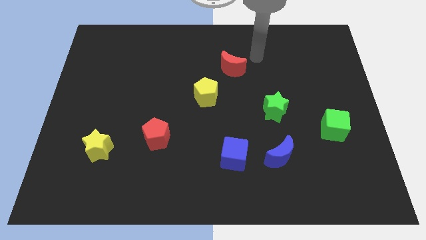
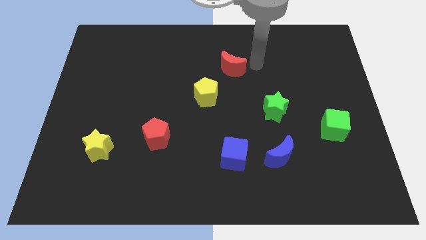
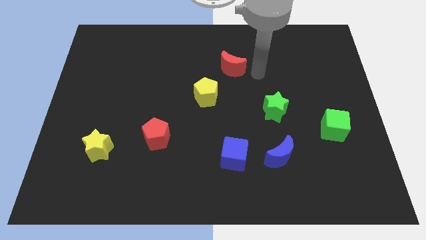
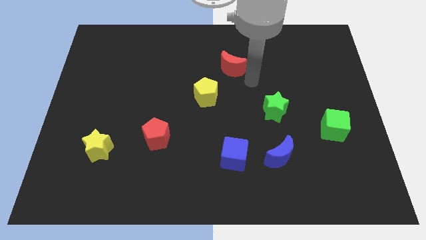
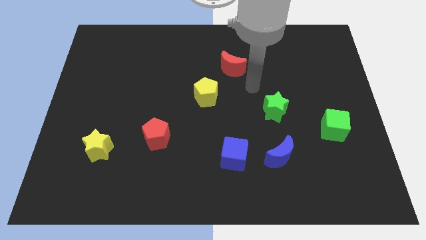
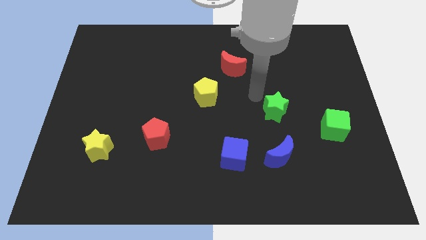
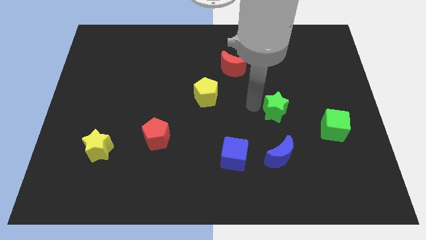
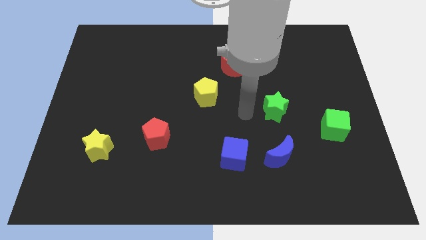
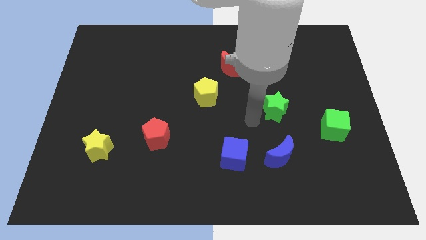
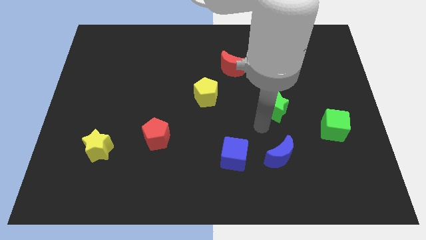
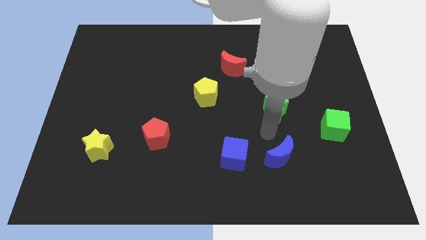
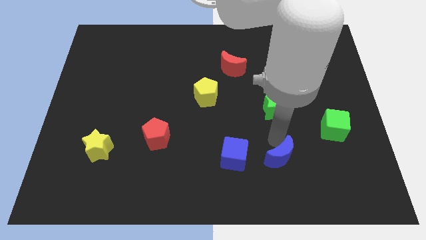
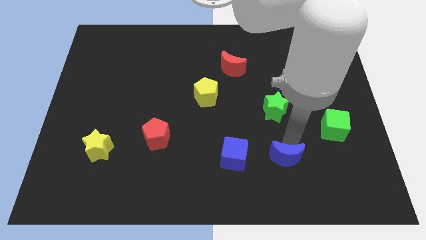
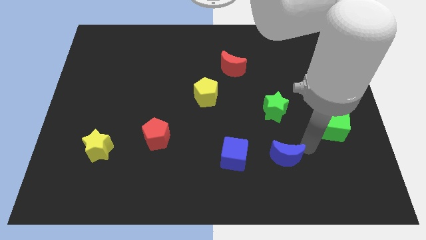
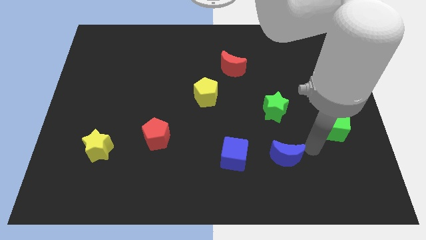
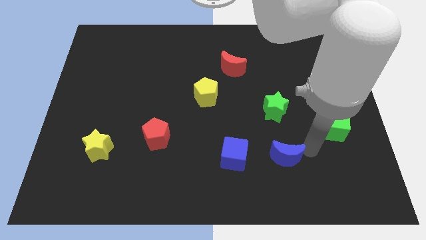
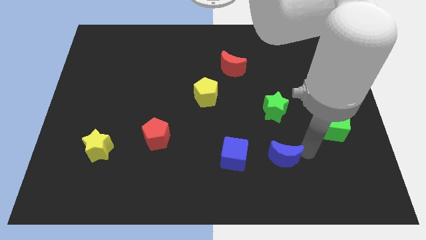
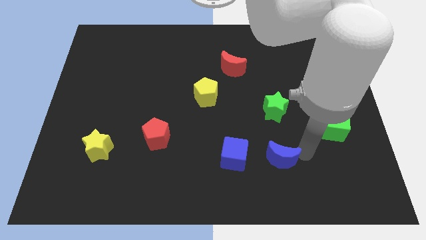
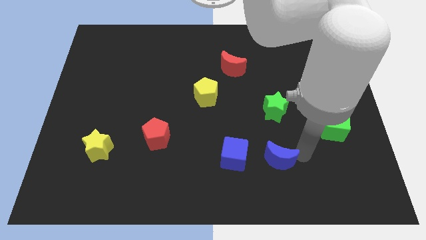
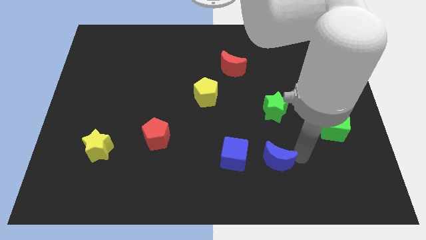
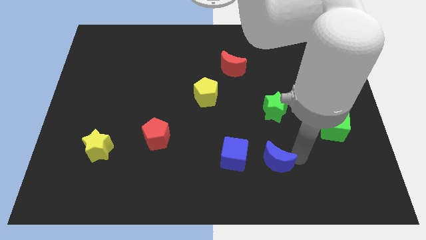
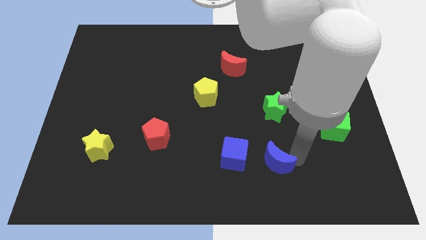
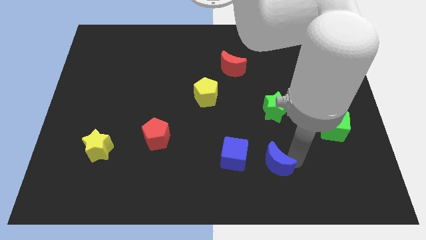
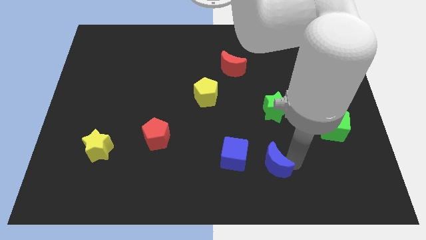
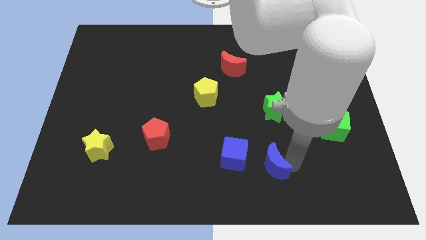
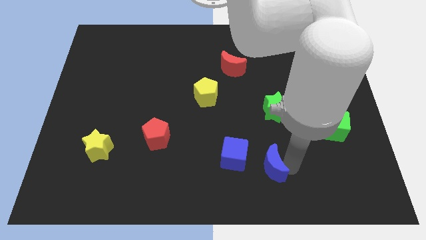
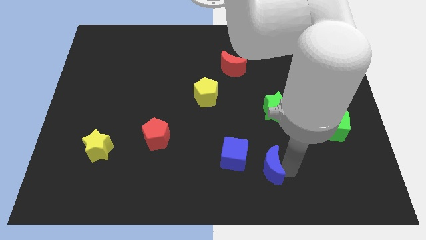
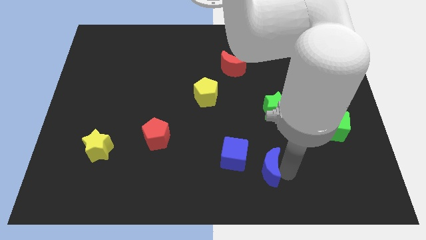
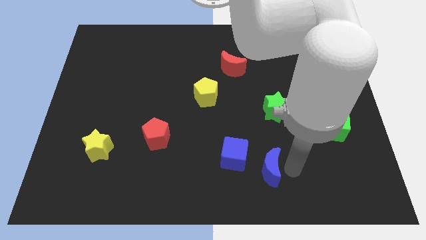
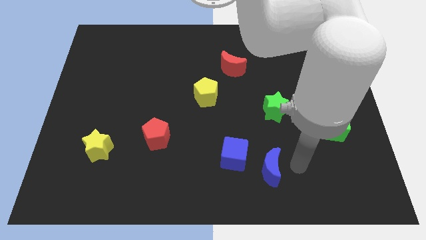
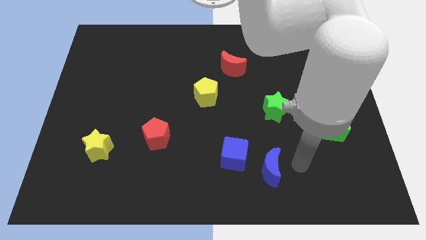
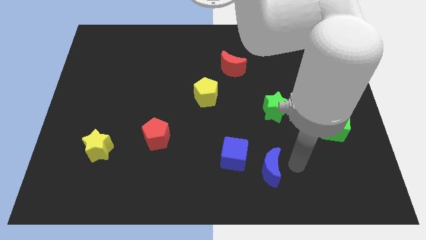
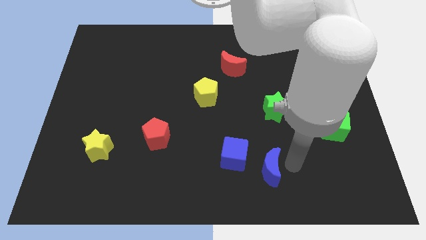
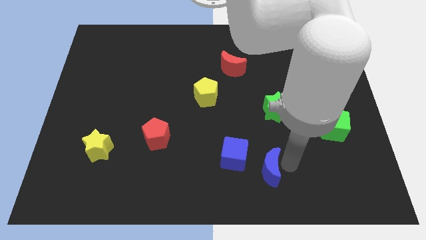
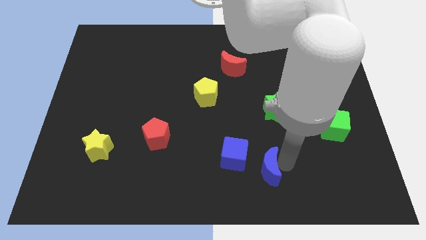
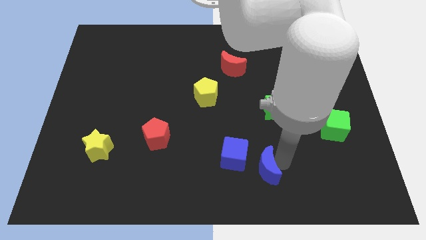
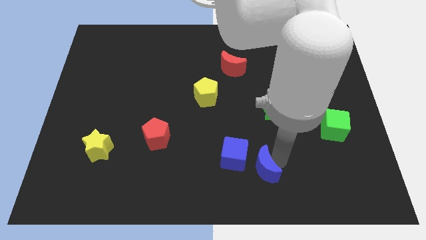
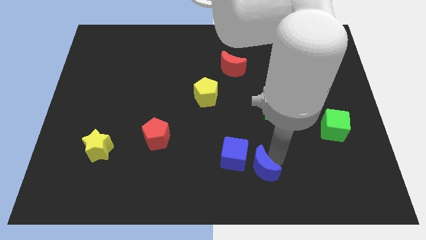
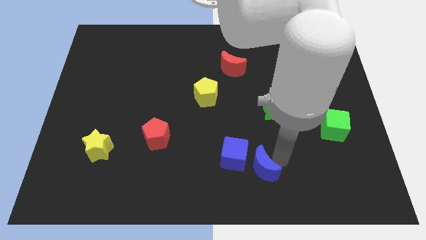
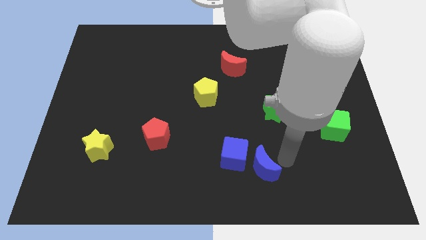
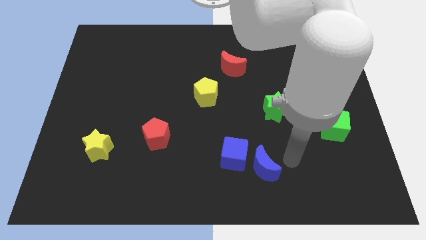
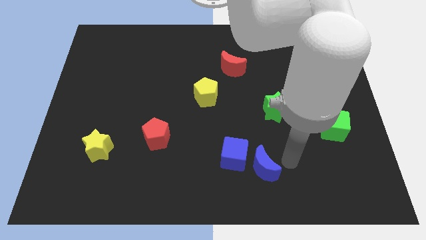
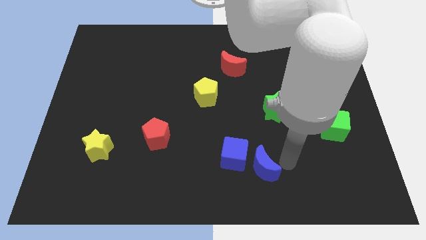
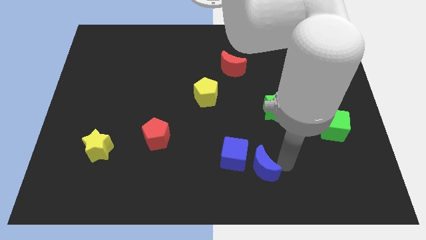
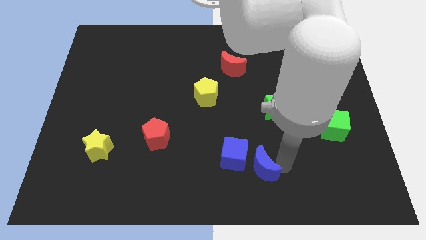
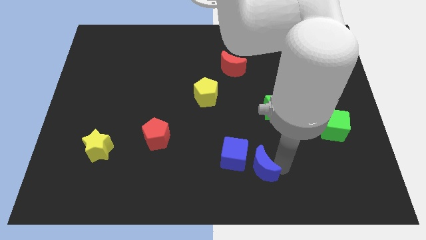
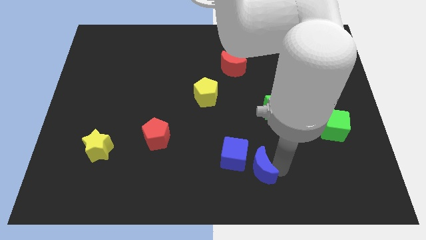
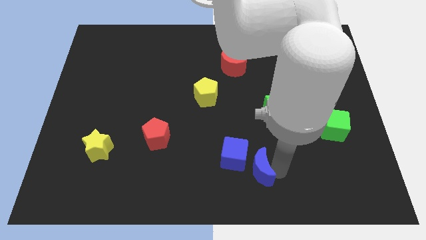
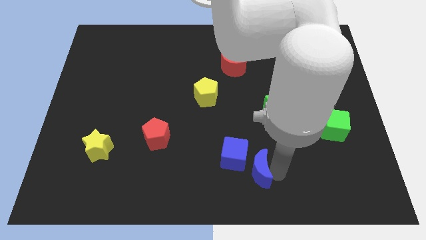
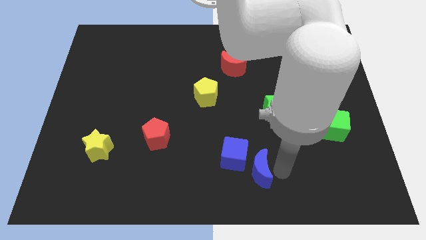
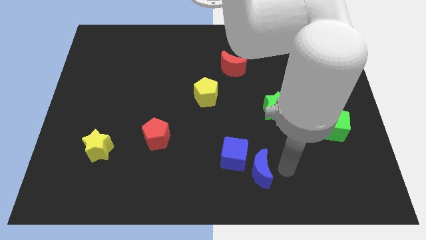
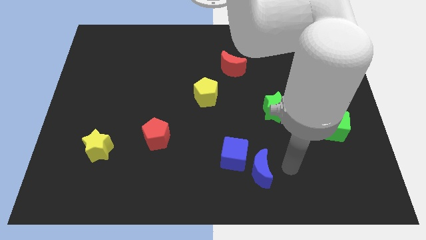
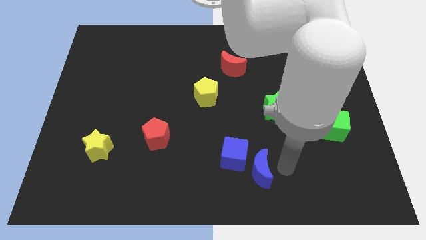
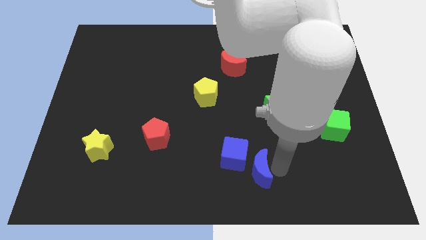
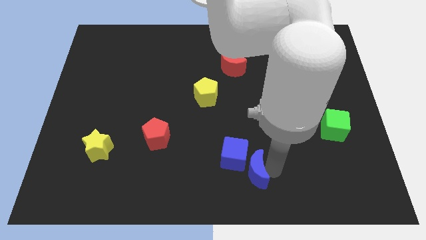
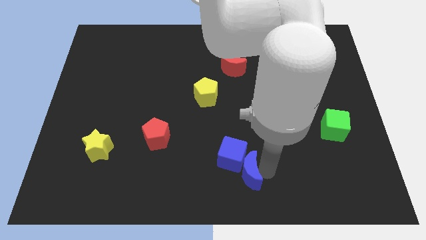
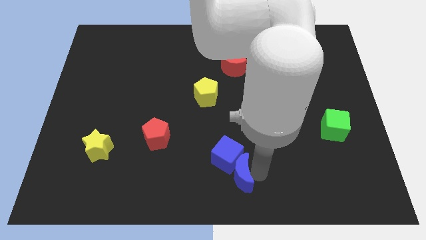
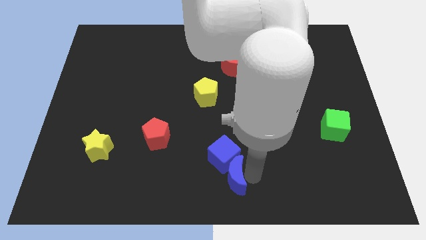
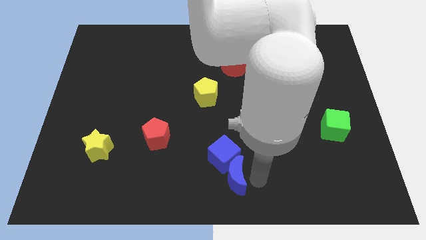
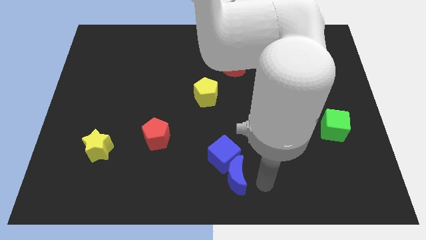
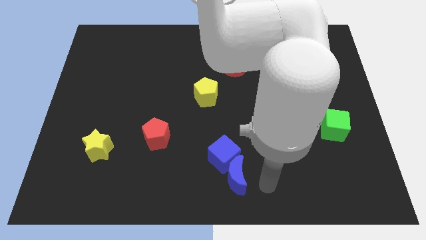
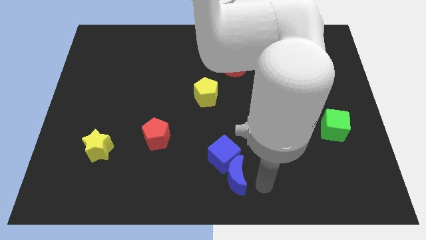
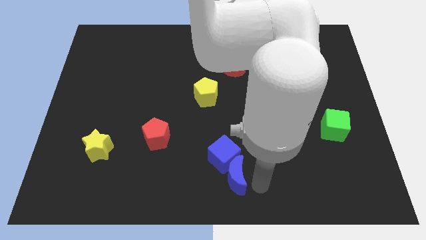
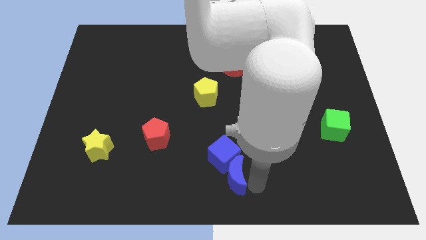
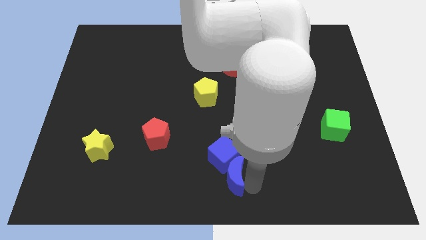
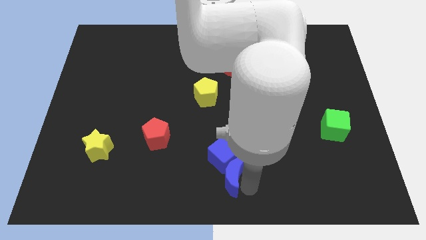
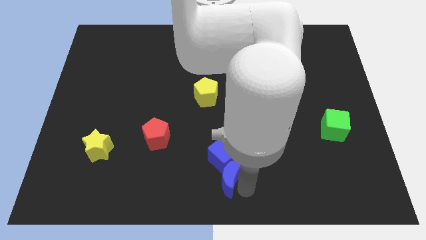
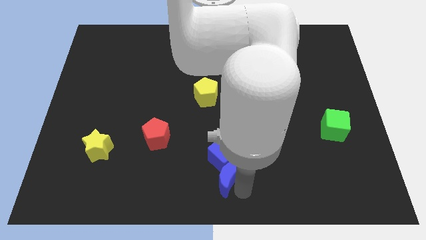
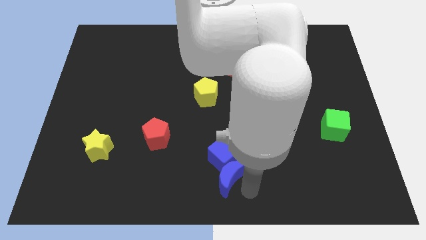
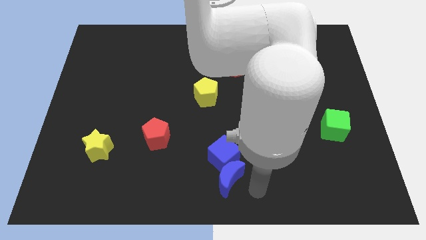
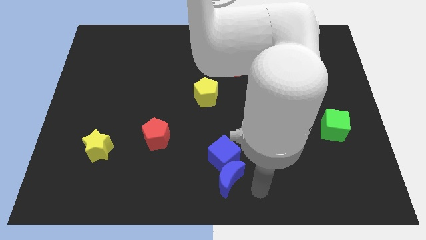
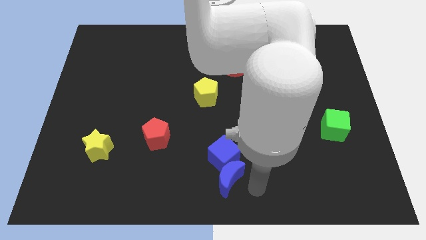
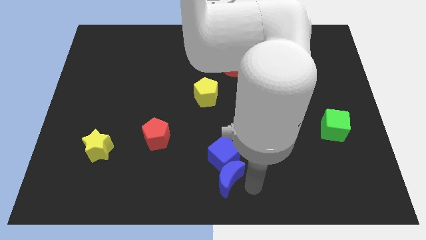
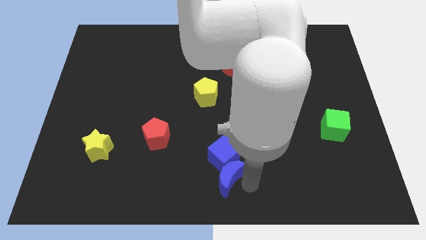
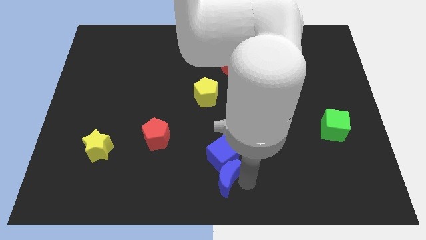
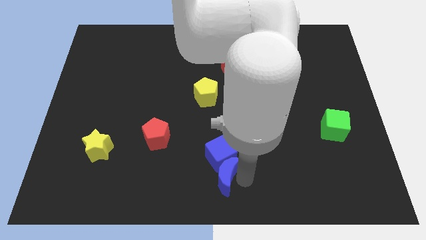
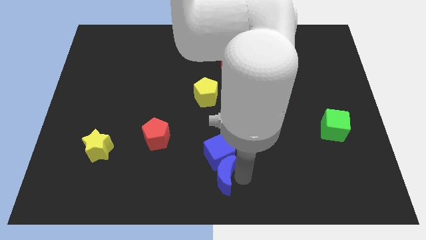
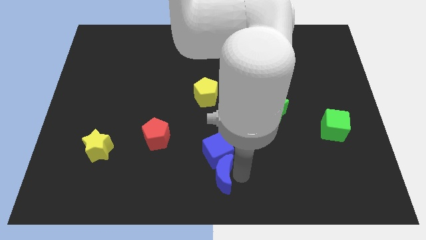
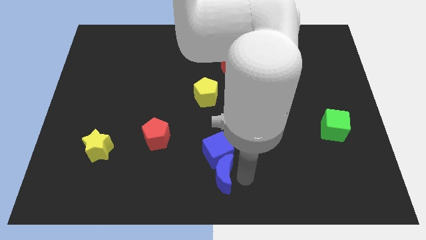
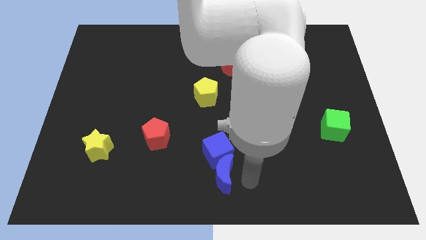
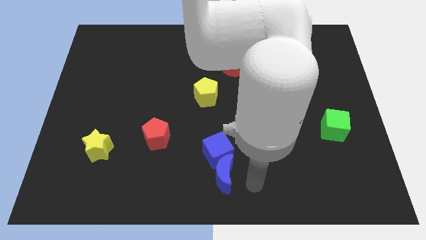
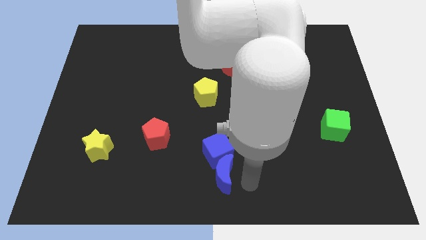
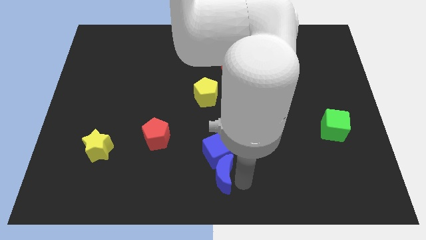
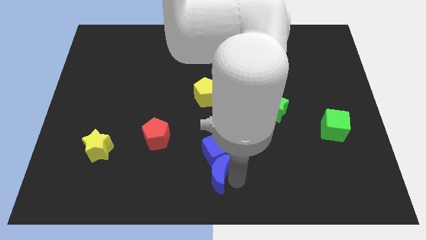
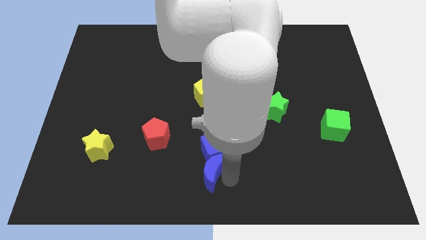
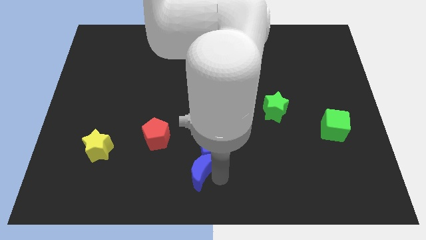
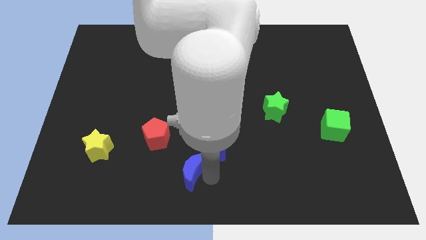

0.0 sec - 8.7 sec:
slide the blue moon to the bottom right side of the red pentagon
